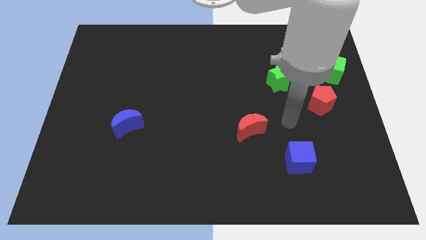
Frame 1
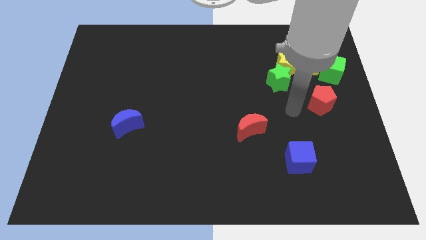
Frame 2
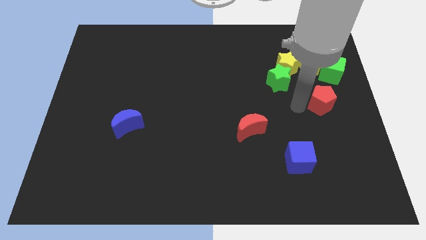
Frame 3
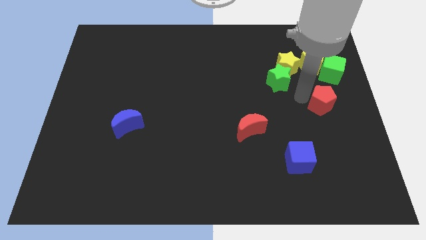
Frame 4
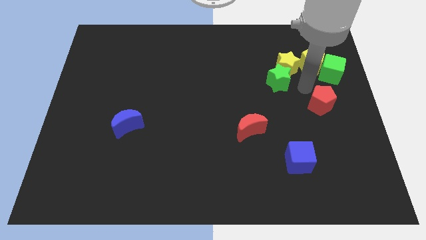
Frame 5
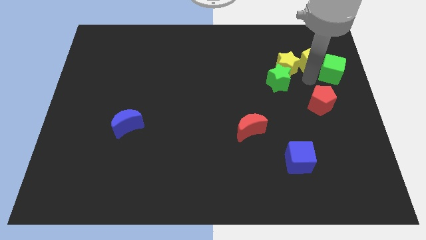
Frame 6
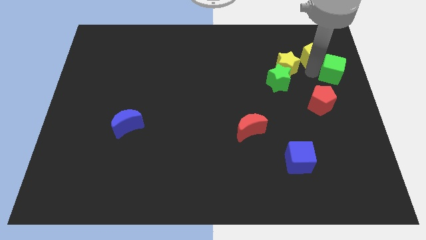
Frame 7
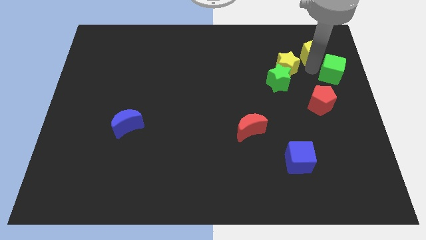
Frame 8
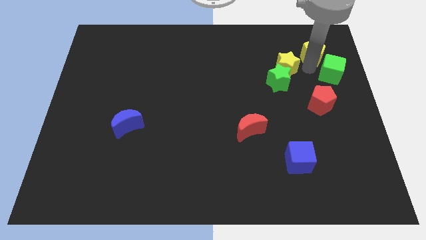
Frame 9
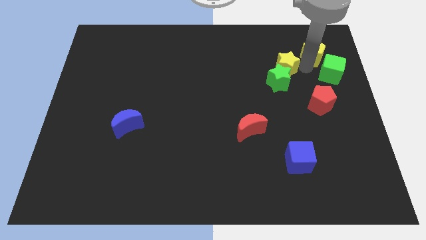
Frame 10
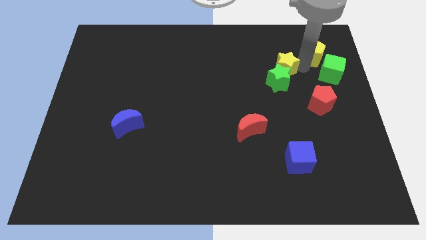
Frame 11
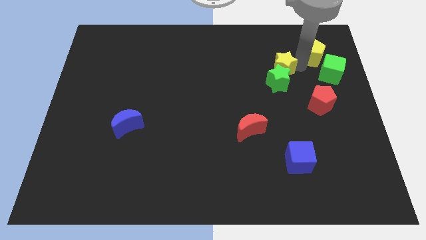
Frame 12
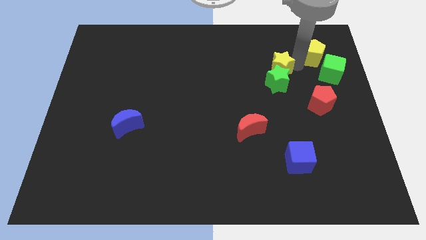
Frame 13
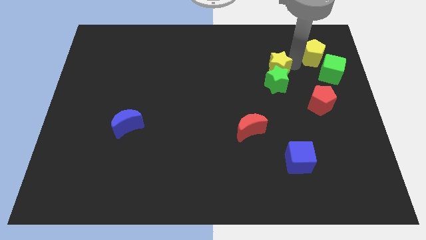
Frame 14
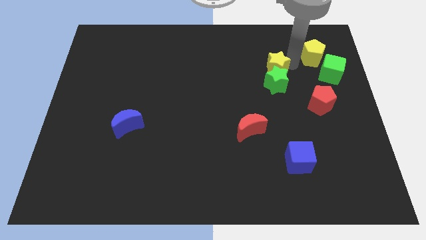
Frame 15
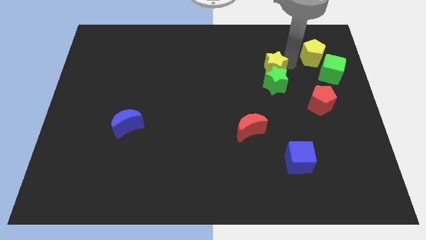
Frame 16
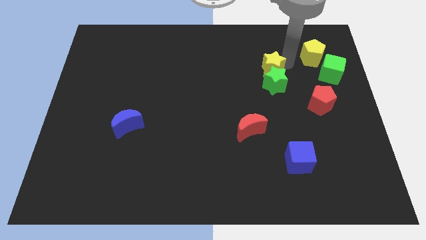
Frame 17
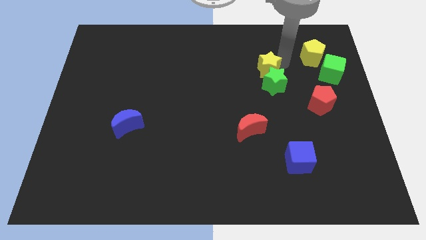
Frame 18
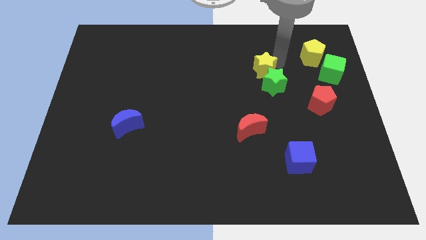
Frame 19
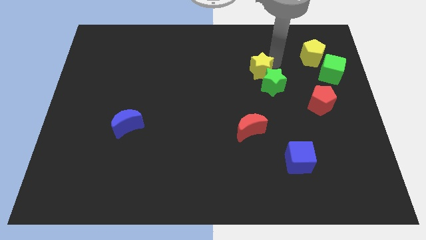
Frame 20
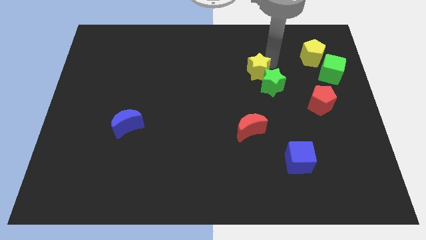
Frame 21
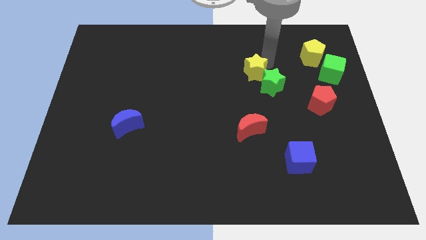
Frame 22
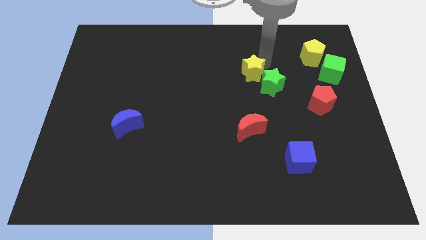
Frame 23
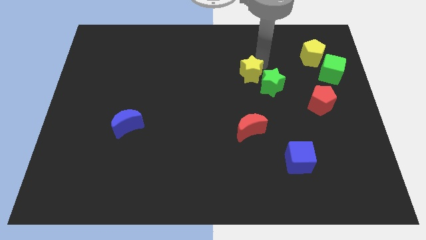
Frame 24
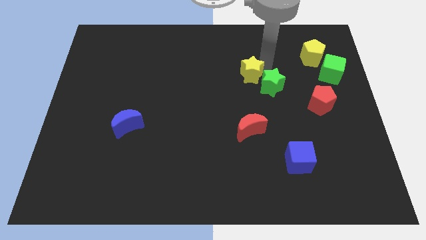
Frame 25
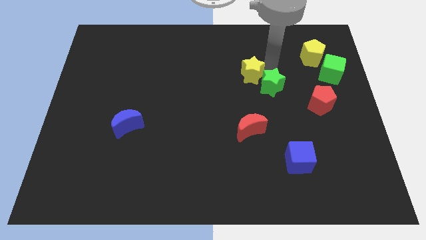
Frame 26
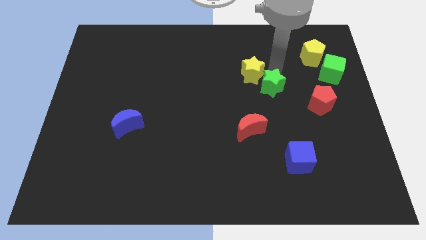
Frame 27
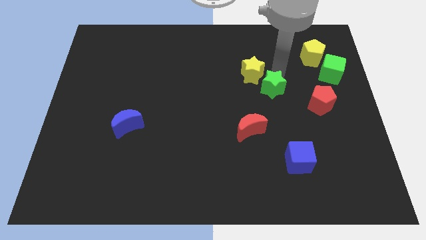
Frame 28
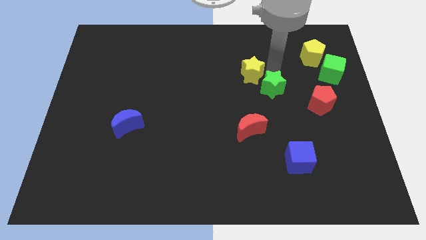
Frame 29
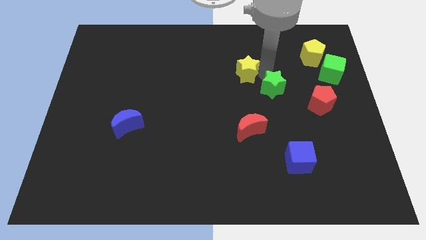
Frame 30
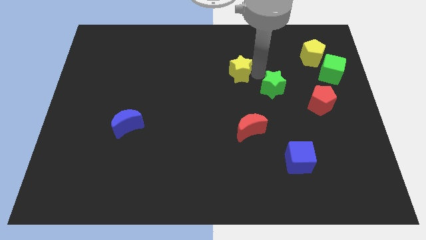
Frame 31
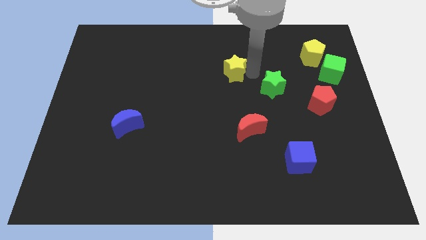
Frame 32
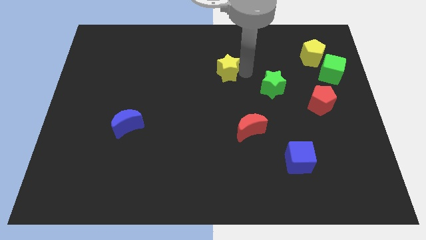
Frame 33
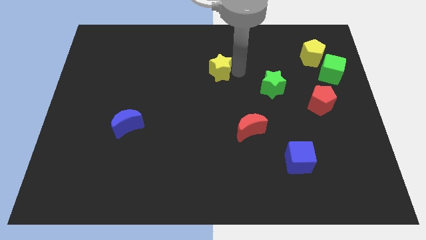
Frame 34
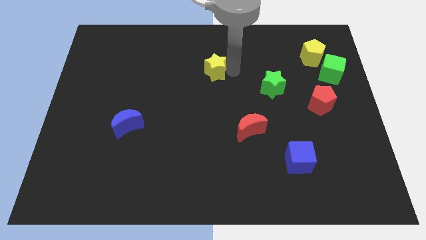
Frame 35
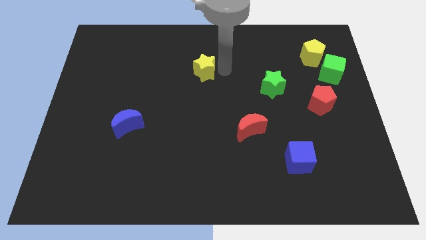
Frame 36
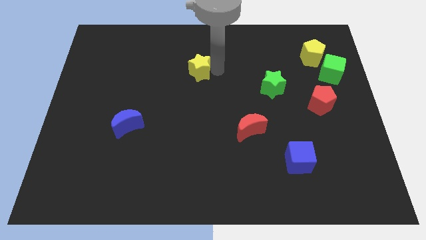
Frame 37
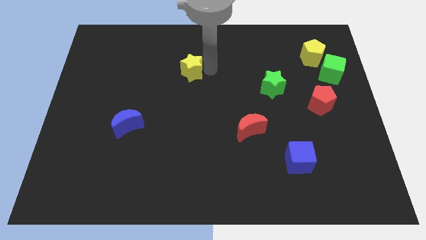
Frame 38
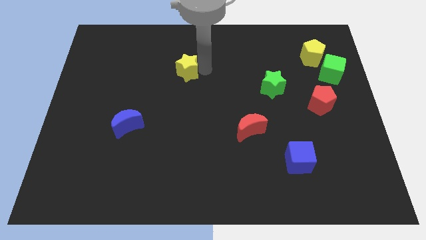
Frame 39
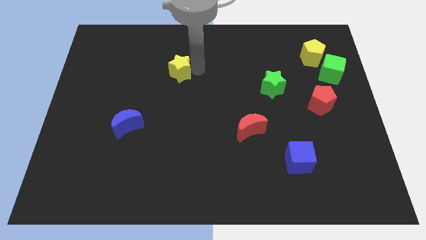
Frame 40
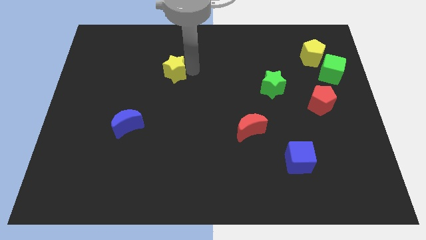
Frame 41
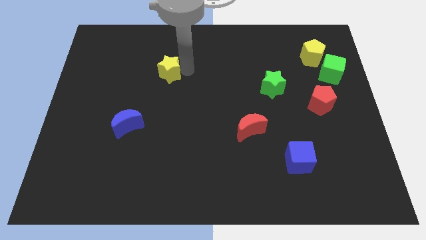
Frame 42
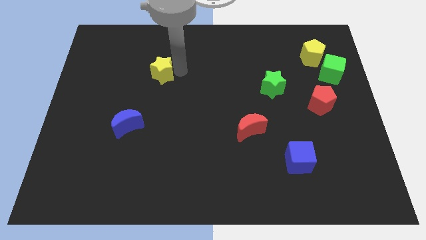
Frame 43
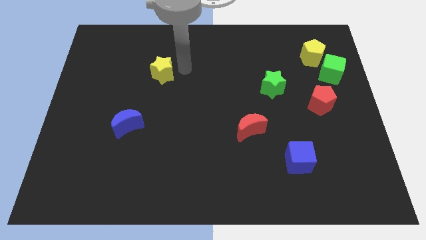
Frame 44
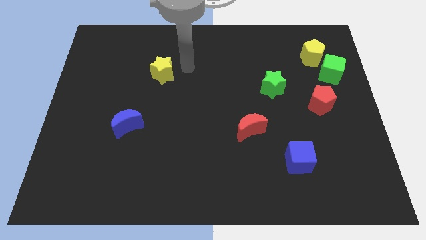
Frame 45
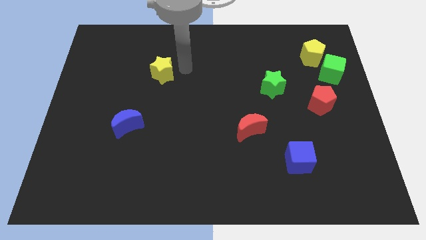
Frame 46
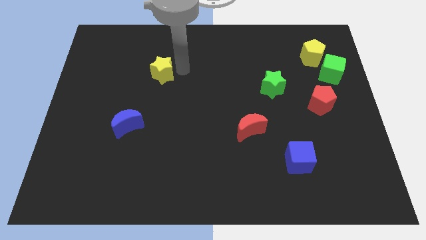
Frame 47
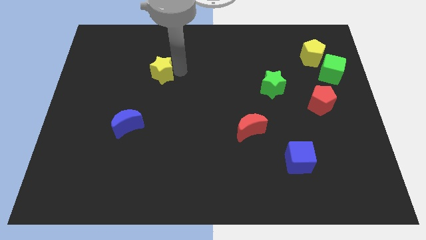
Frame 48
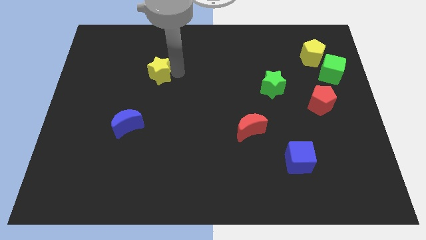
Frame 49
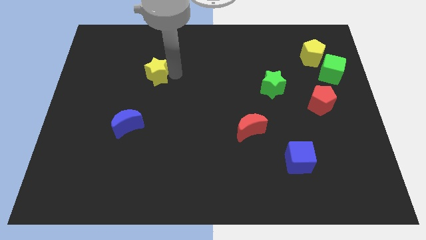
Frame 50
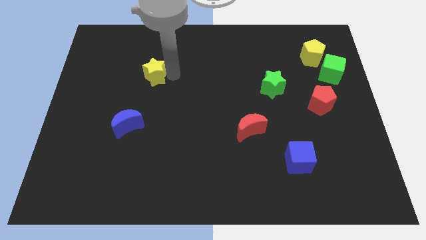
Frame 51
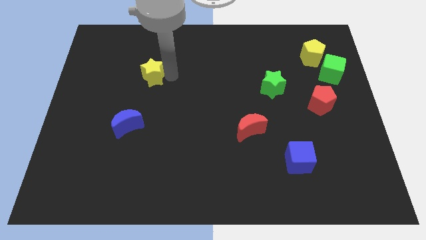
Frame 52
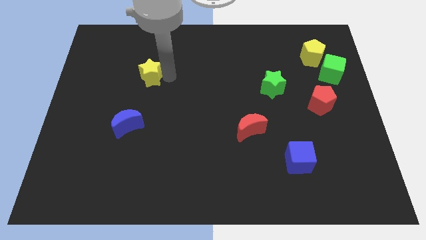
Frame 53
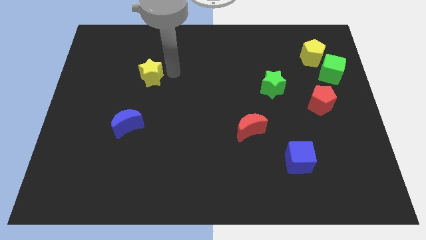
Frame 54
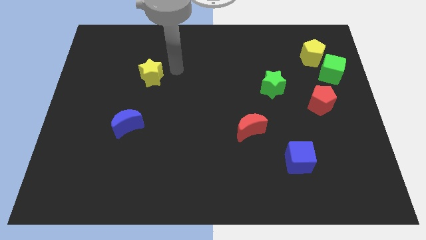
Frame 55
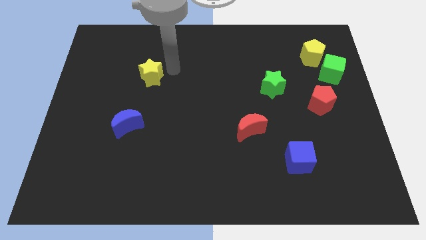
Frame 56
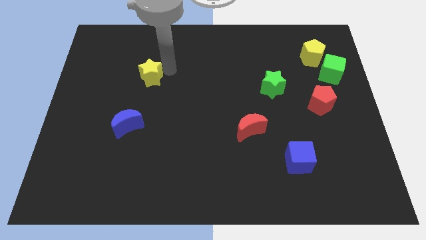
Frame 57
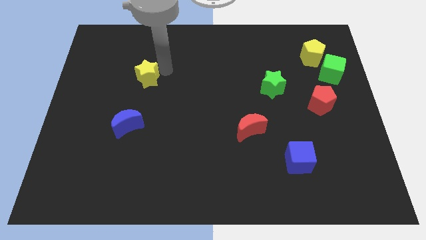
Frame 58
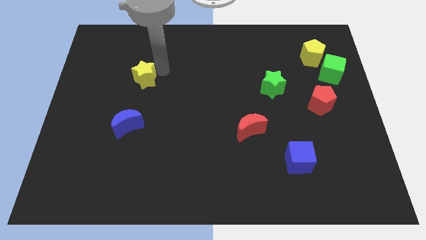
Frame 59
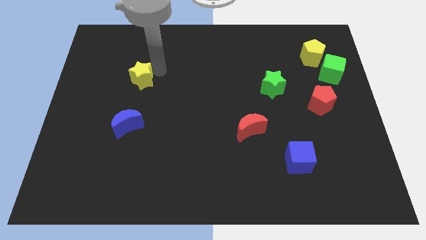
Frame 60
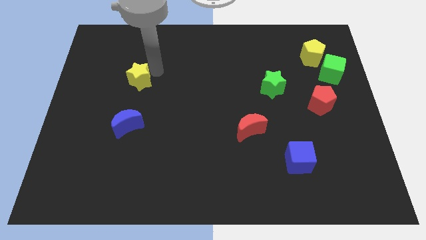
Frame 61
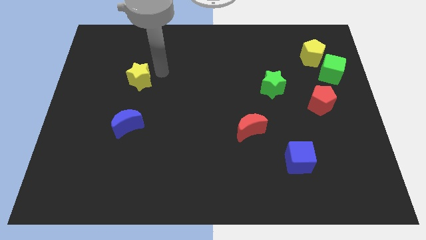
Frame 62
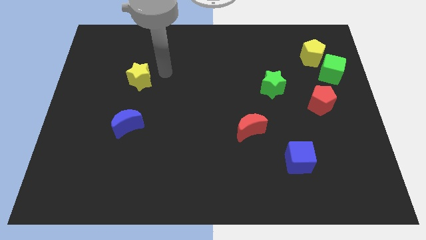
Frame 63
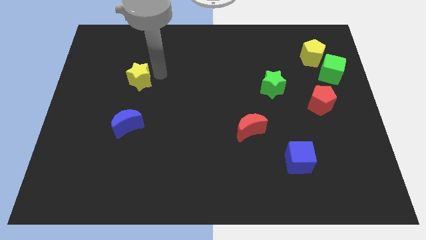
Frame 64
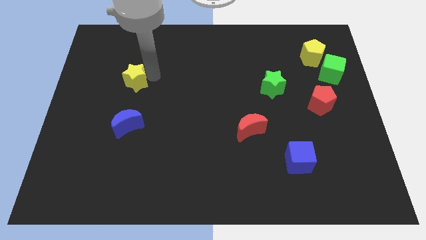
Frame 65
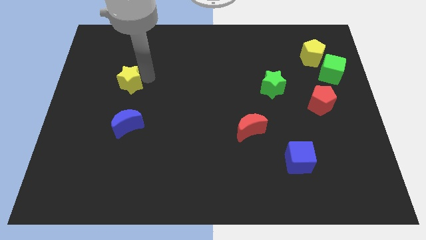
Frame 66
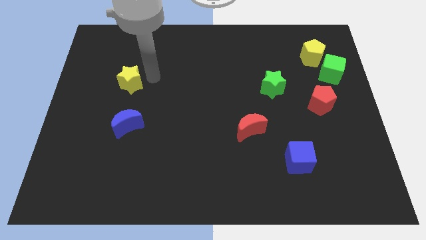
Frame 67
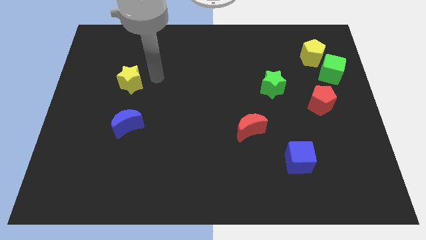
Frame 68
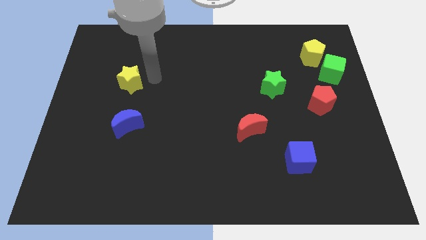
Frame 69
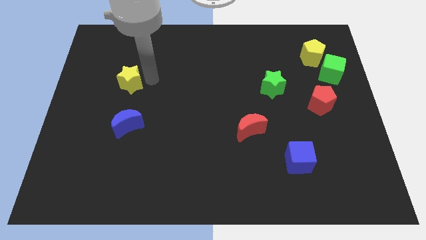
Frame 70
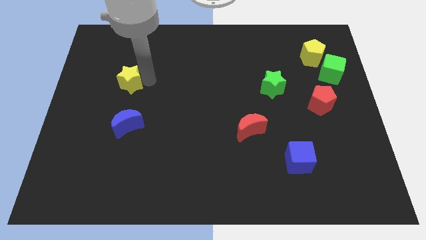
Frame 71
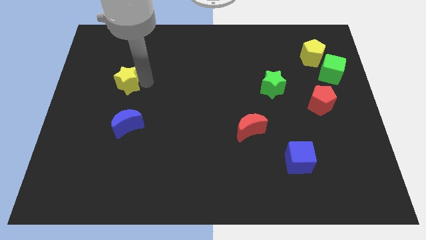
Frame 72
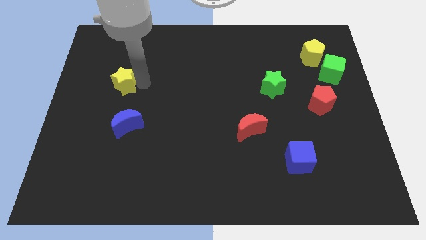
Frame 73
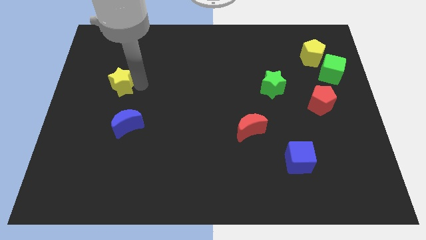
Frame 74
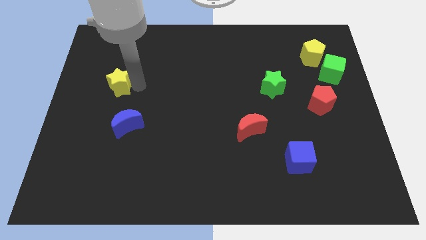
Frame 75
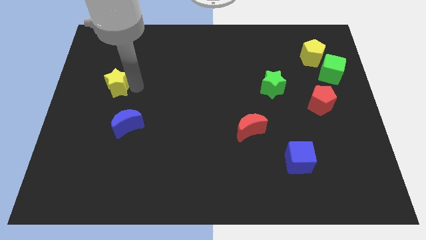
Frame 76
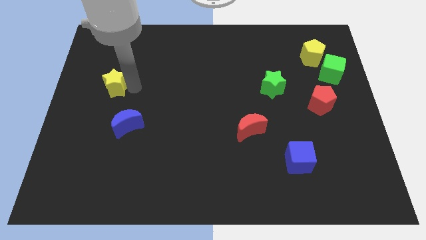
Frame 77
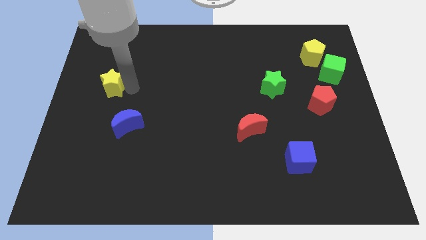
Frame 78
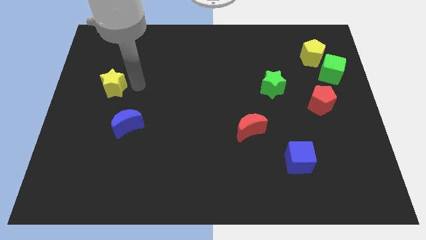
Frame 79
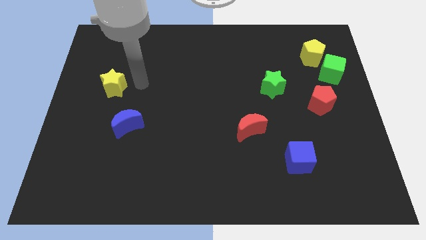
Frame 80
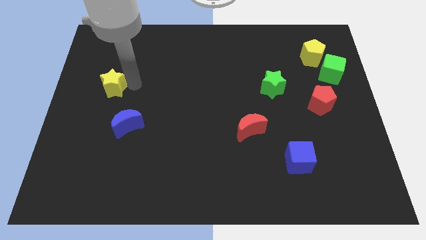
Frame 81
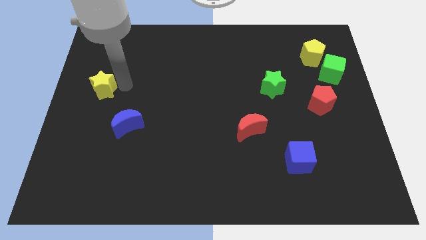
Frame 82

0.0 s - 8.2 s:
slide the yellow star to the left side of the board
